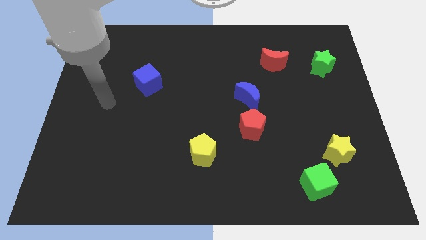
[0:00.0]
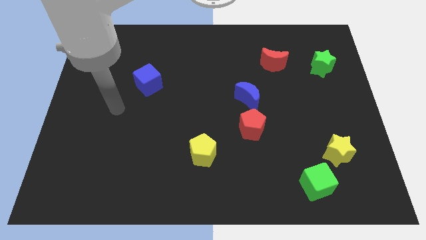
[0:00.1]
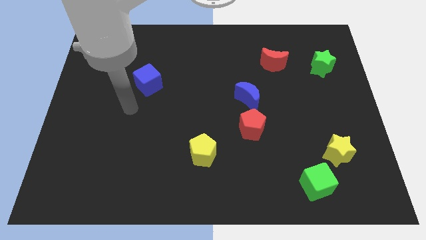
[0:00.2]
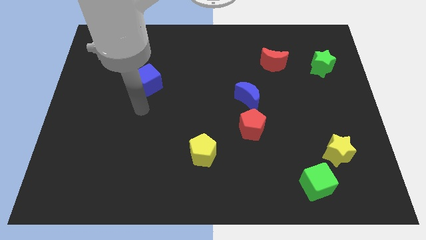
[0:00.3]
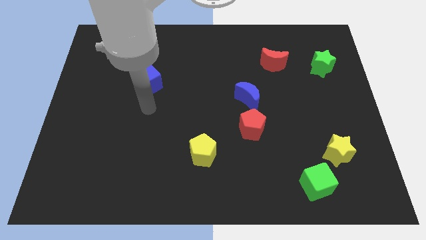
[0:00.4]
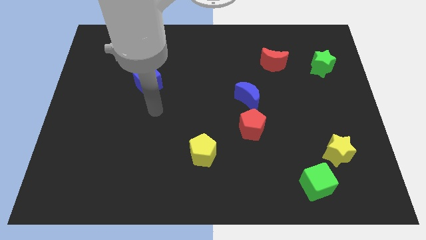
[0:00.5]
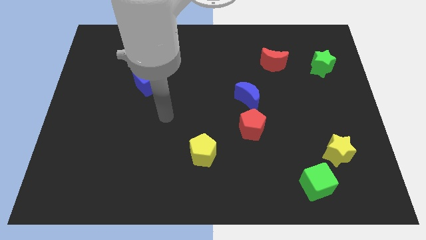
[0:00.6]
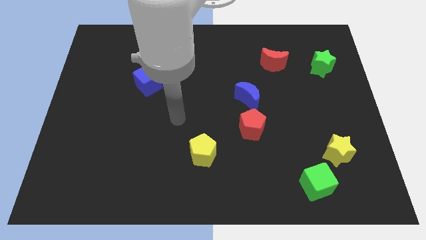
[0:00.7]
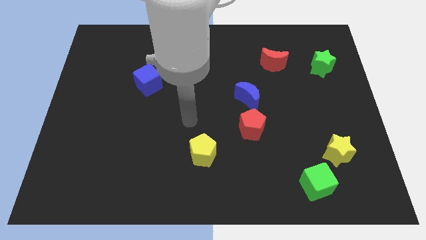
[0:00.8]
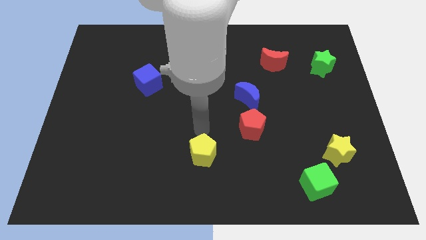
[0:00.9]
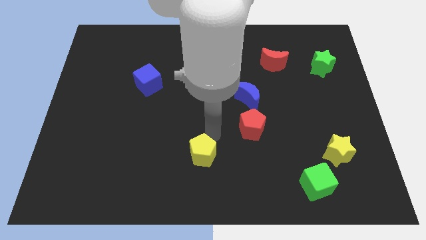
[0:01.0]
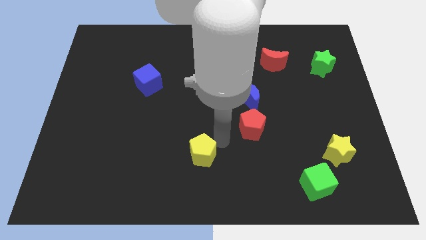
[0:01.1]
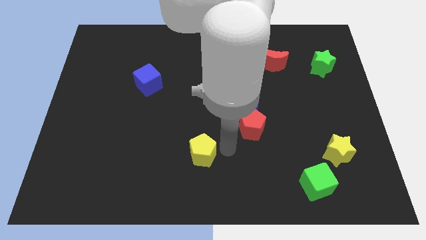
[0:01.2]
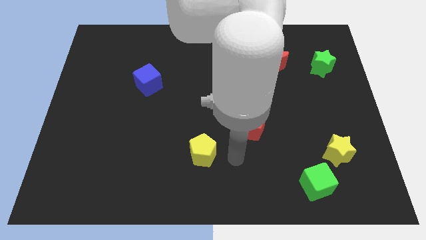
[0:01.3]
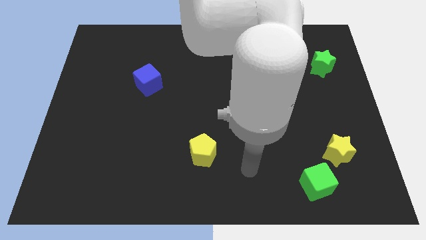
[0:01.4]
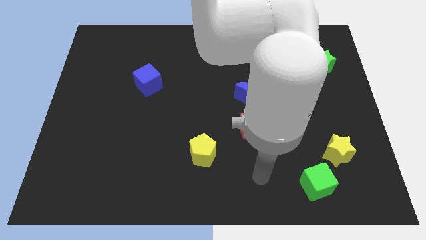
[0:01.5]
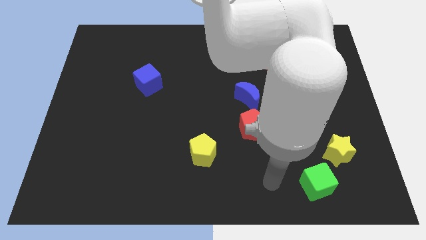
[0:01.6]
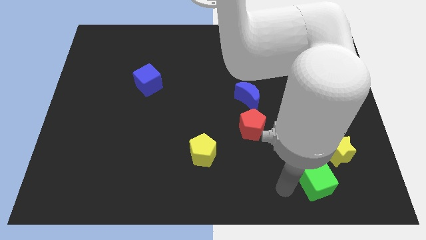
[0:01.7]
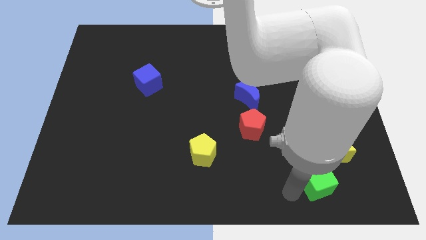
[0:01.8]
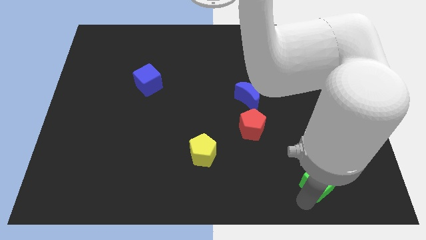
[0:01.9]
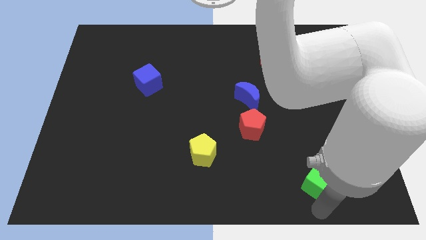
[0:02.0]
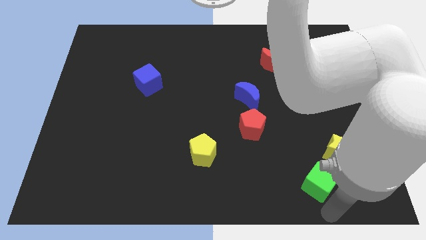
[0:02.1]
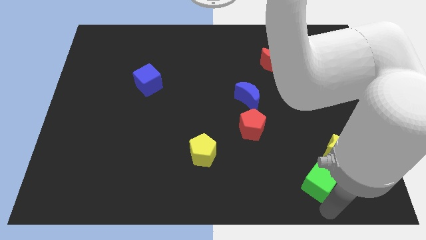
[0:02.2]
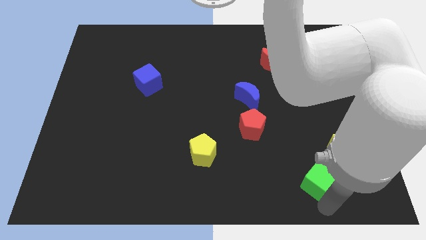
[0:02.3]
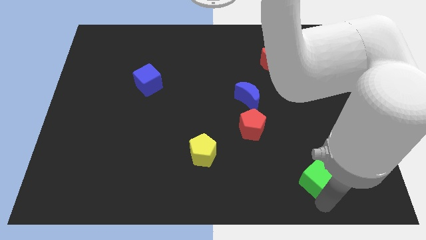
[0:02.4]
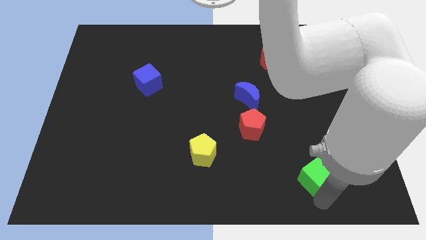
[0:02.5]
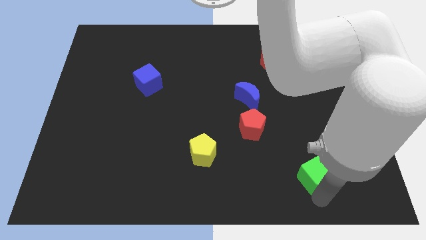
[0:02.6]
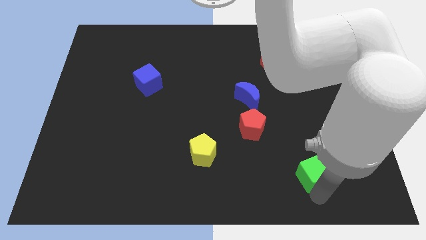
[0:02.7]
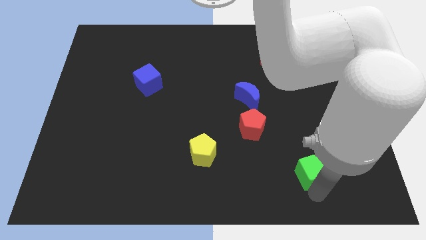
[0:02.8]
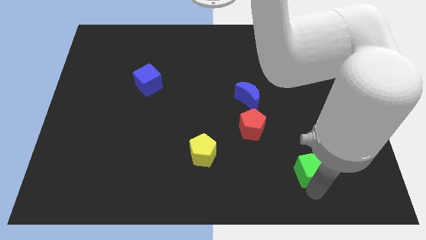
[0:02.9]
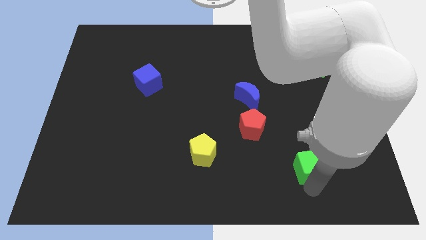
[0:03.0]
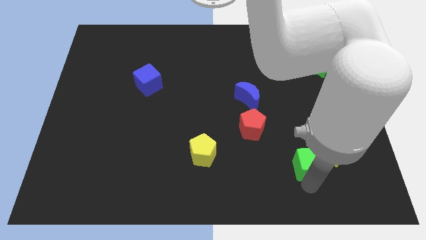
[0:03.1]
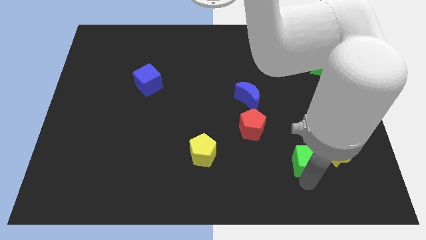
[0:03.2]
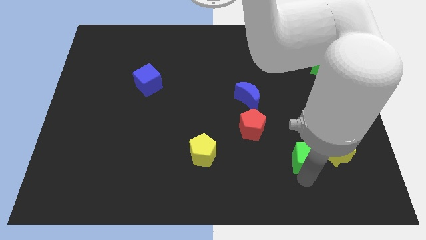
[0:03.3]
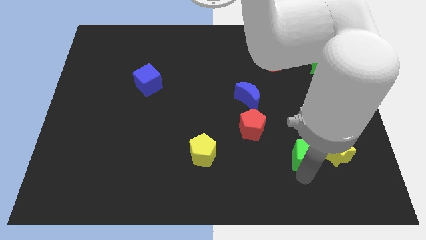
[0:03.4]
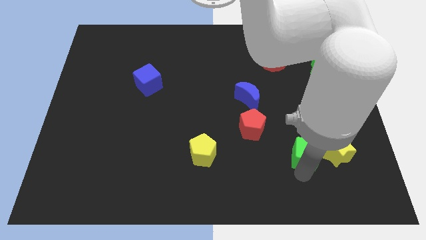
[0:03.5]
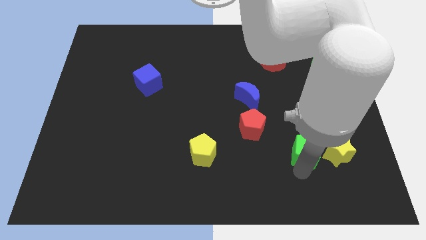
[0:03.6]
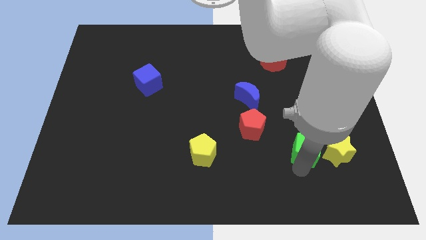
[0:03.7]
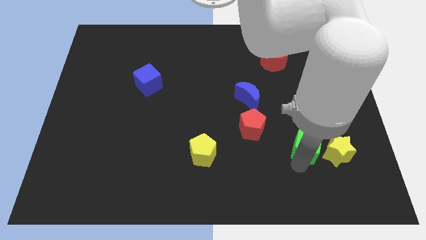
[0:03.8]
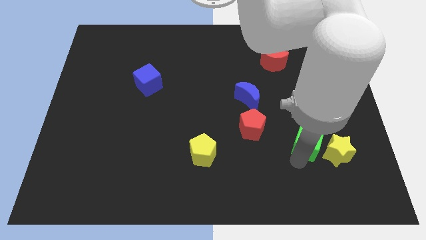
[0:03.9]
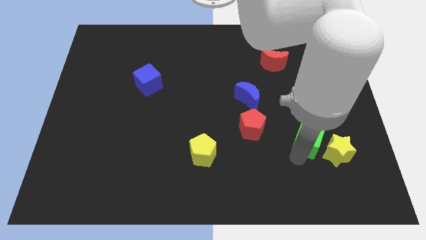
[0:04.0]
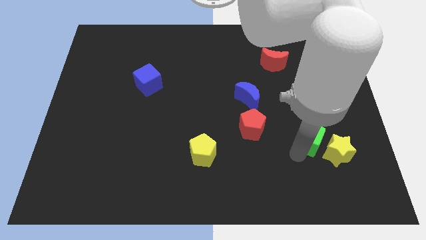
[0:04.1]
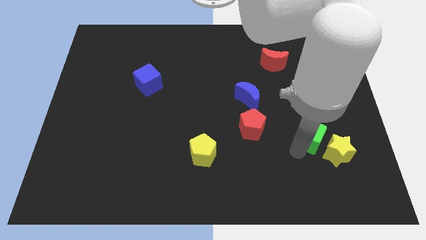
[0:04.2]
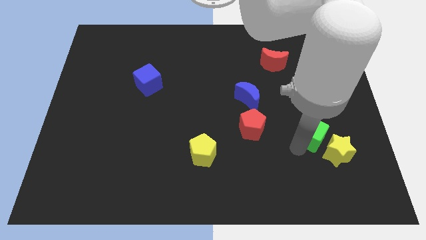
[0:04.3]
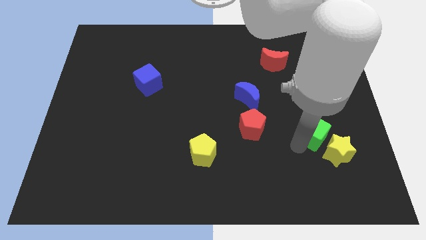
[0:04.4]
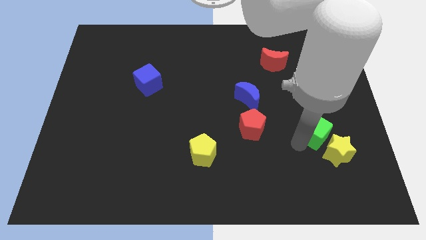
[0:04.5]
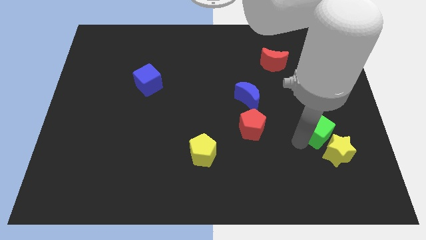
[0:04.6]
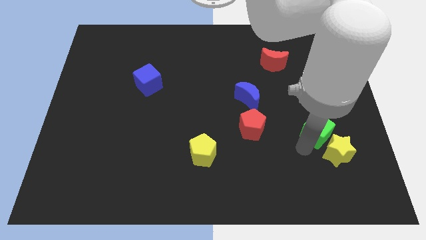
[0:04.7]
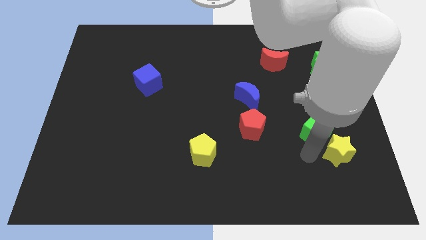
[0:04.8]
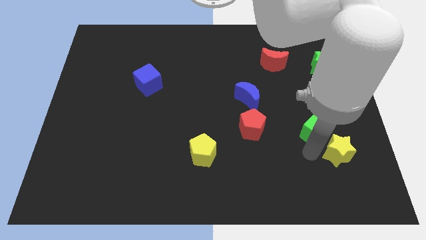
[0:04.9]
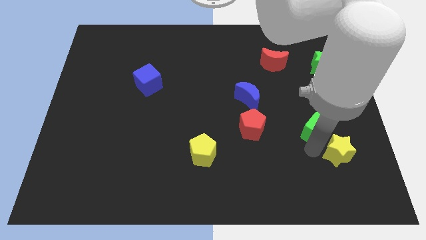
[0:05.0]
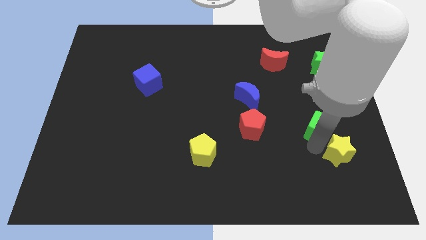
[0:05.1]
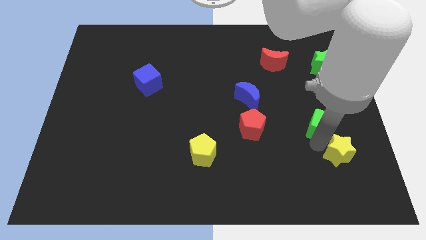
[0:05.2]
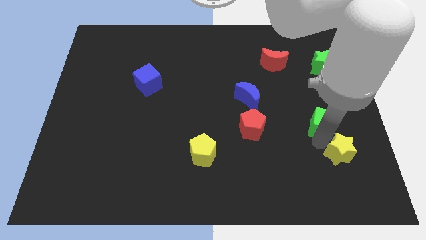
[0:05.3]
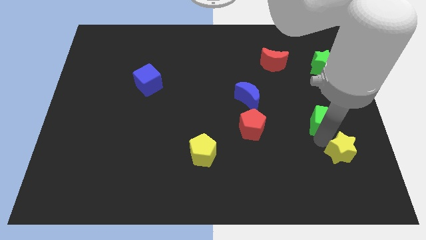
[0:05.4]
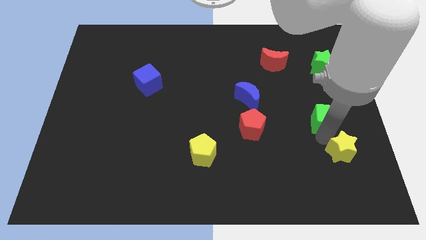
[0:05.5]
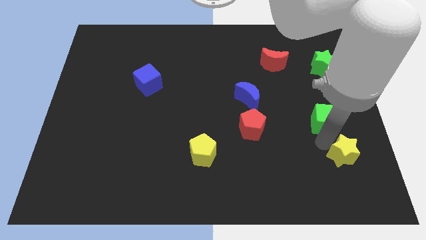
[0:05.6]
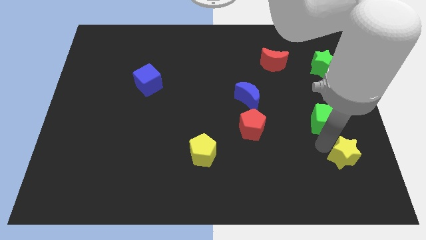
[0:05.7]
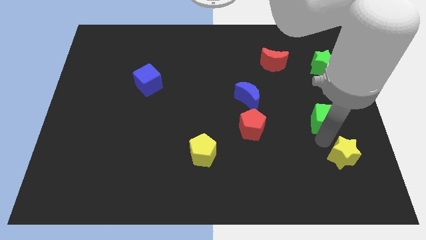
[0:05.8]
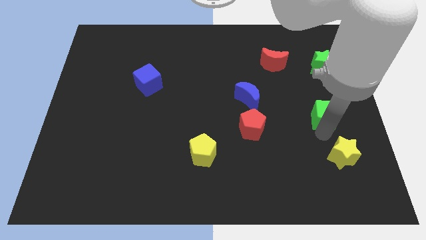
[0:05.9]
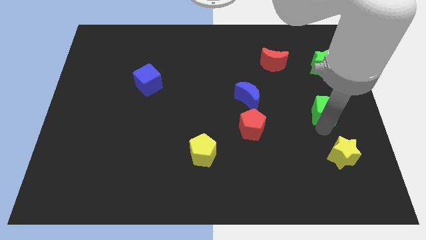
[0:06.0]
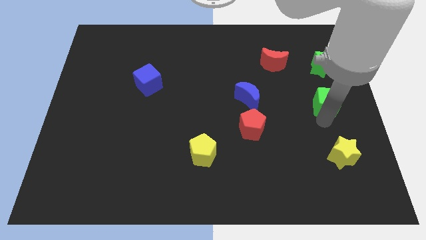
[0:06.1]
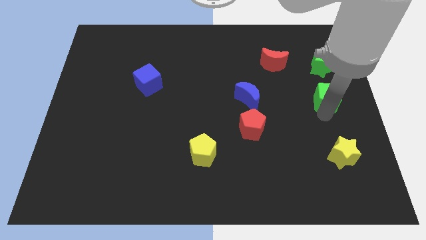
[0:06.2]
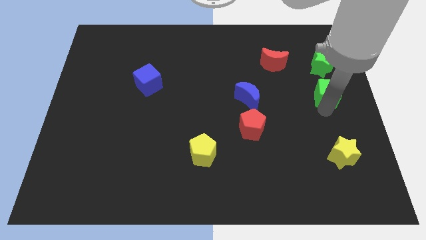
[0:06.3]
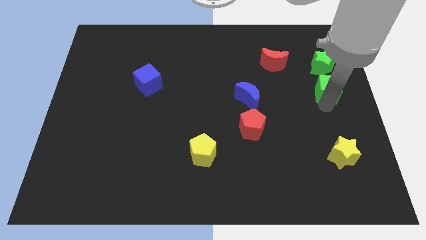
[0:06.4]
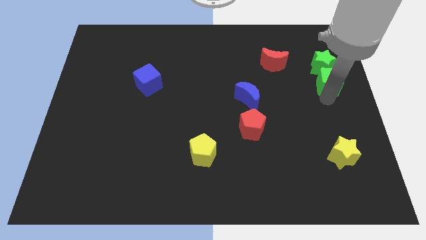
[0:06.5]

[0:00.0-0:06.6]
push the green cube close to the green star

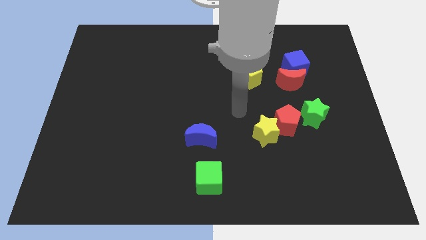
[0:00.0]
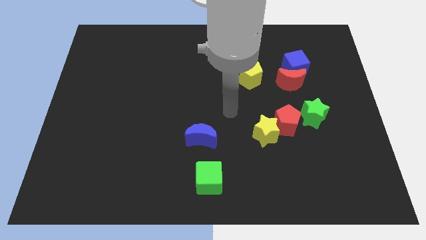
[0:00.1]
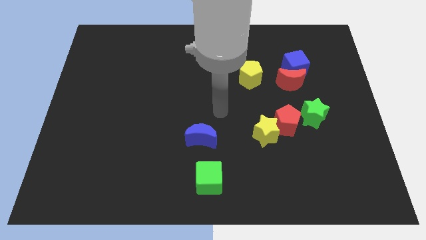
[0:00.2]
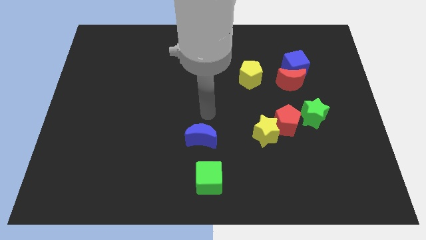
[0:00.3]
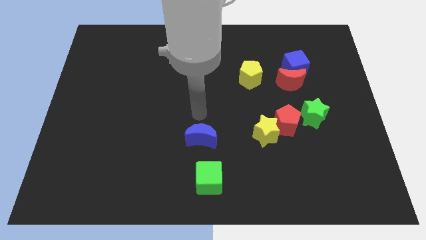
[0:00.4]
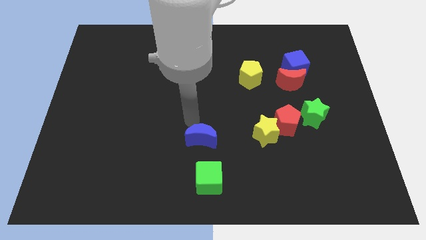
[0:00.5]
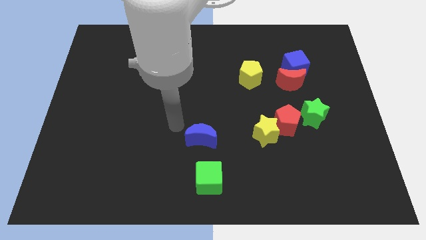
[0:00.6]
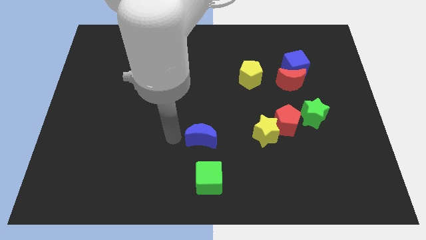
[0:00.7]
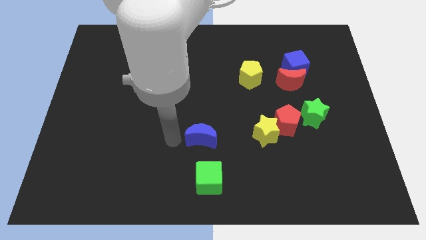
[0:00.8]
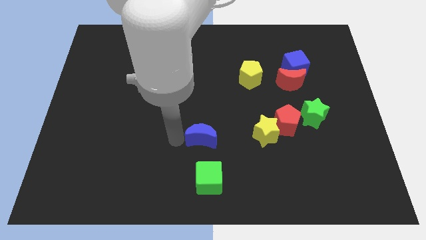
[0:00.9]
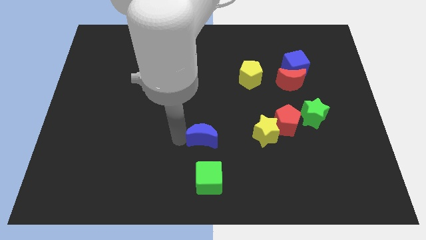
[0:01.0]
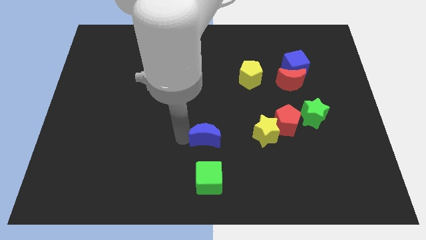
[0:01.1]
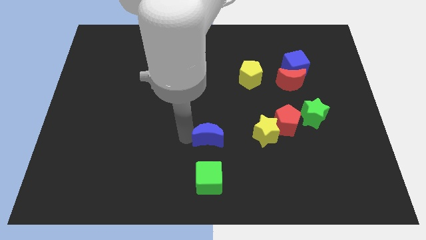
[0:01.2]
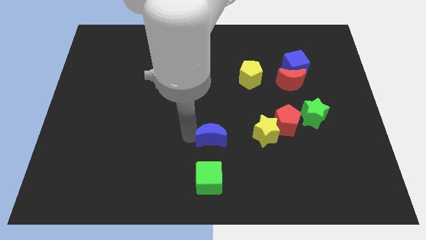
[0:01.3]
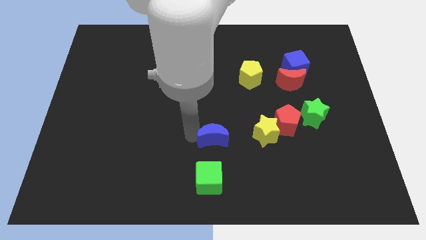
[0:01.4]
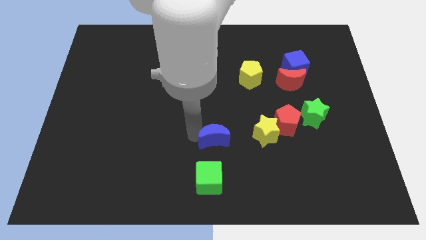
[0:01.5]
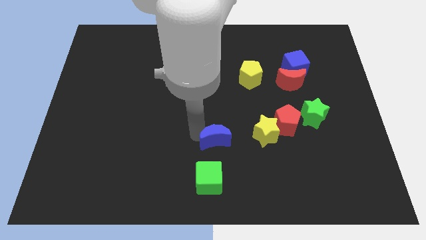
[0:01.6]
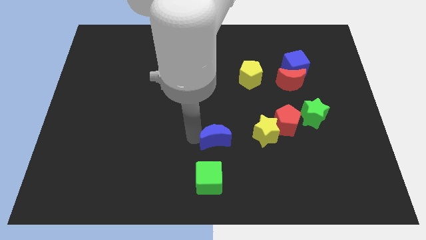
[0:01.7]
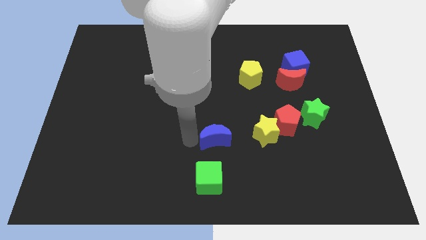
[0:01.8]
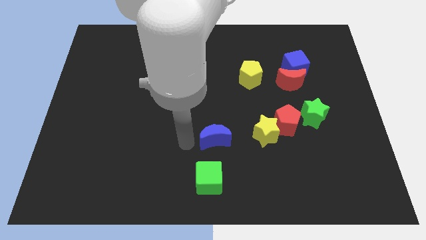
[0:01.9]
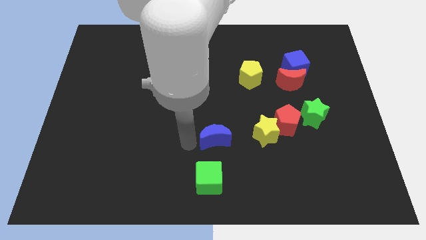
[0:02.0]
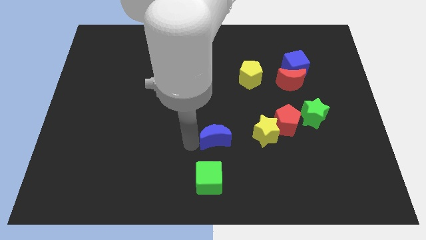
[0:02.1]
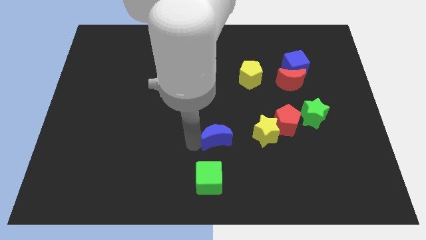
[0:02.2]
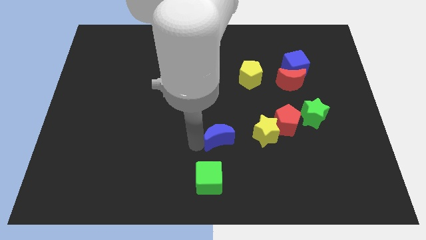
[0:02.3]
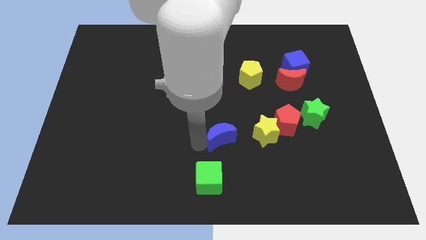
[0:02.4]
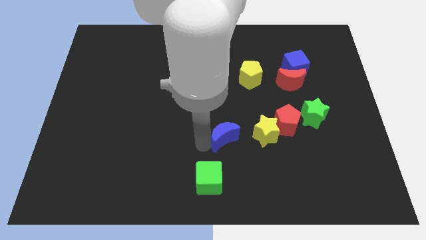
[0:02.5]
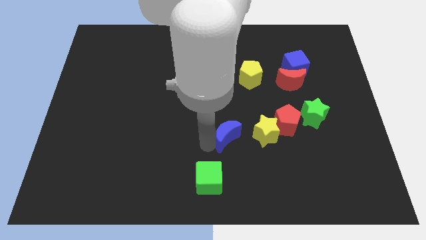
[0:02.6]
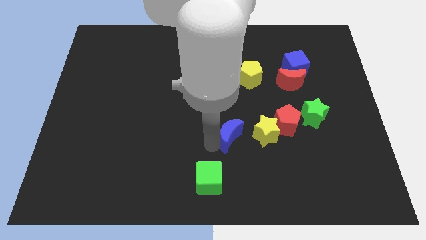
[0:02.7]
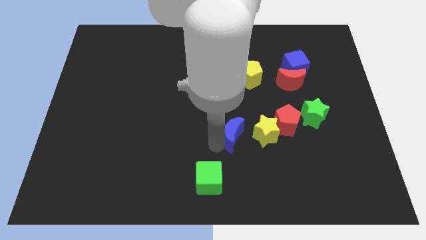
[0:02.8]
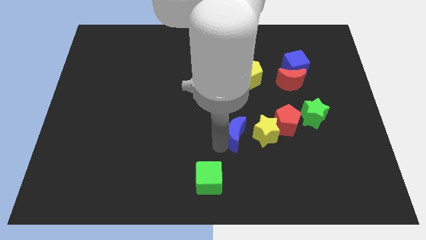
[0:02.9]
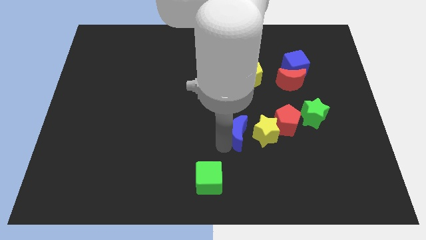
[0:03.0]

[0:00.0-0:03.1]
push the blue moon close to the yellow star
